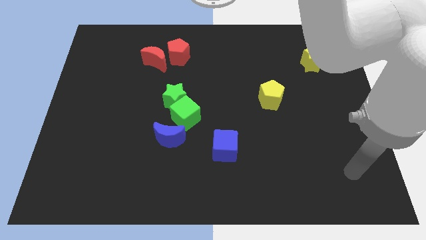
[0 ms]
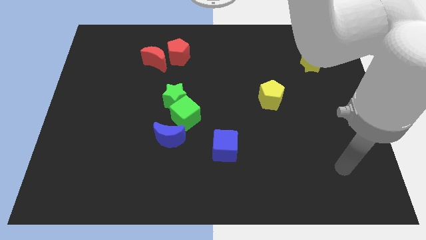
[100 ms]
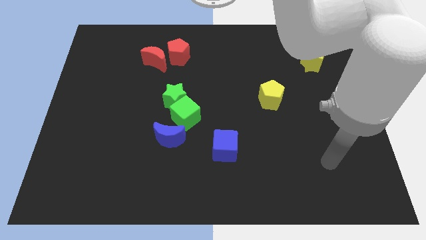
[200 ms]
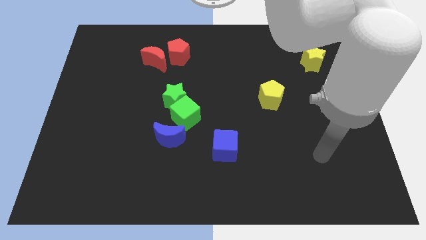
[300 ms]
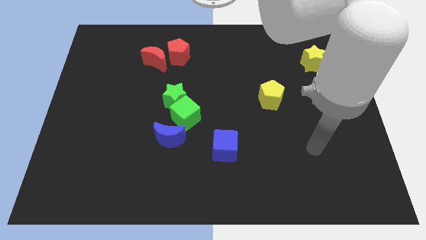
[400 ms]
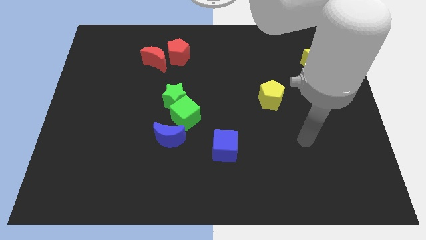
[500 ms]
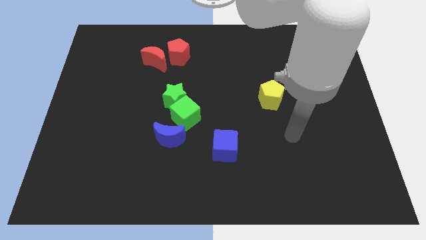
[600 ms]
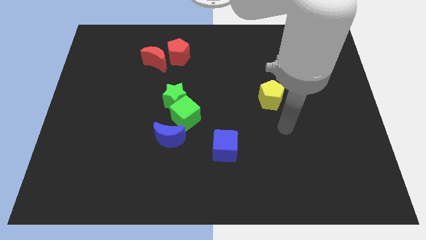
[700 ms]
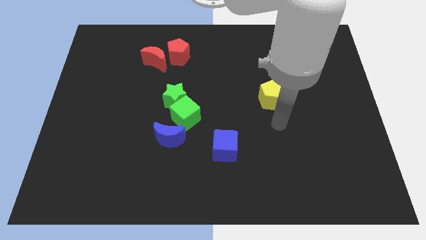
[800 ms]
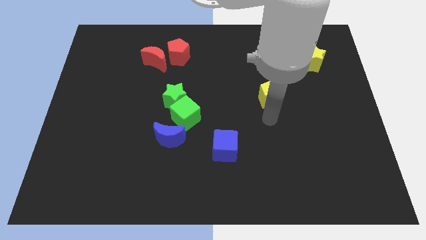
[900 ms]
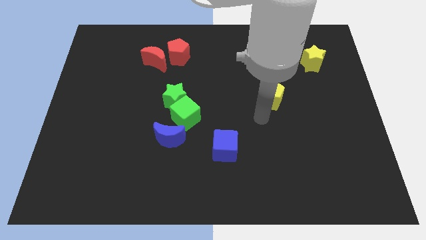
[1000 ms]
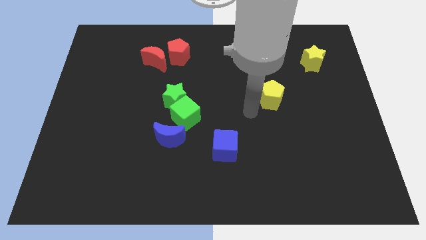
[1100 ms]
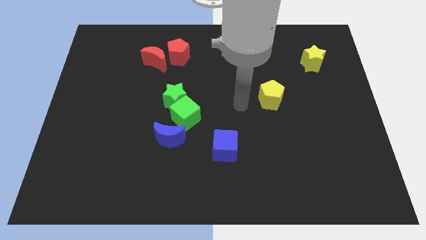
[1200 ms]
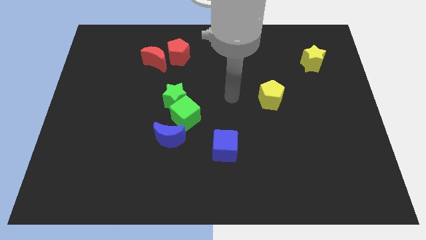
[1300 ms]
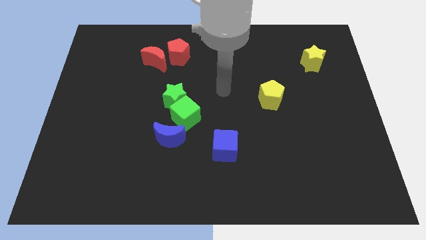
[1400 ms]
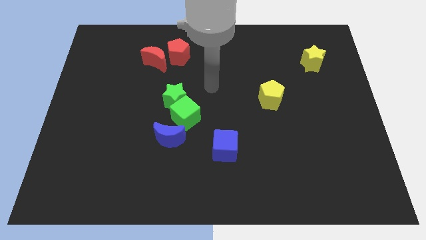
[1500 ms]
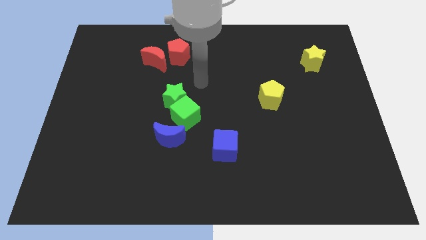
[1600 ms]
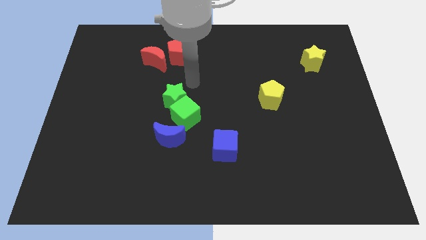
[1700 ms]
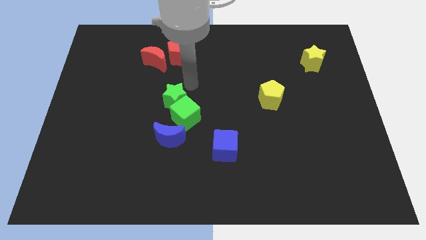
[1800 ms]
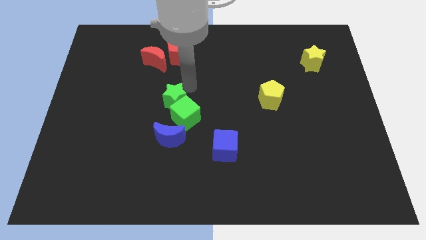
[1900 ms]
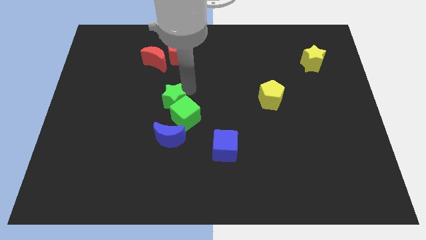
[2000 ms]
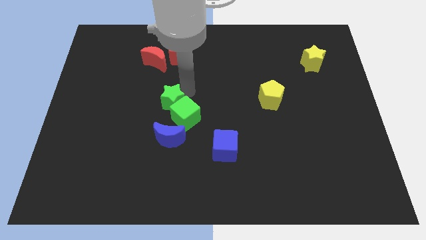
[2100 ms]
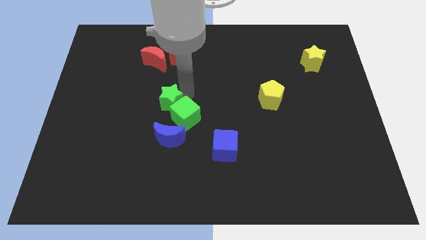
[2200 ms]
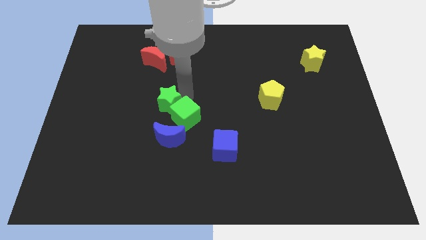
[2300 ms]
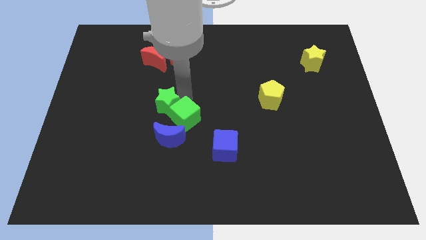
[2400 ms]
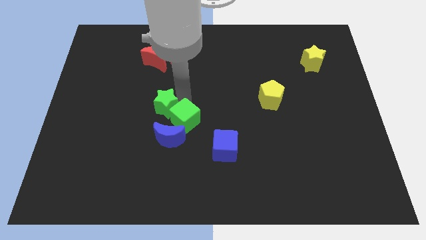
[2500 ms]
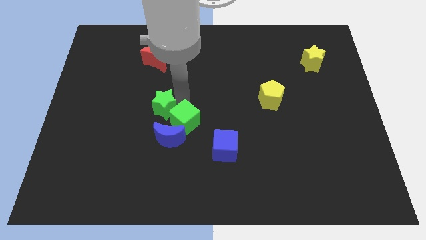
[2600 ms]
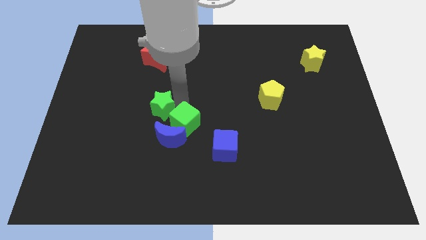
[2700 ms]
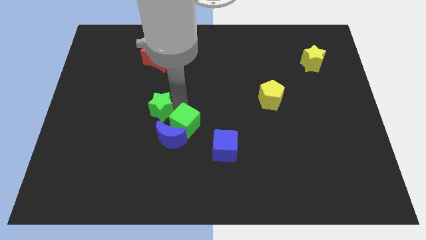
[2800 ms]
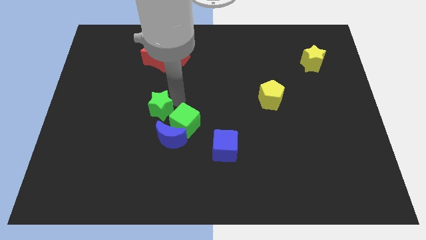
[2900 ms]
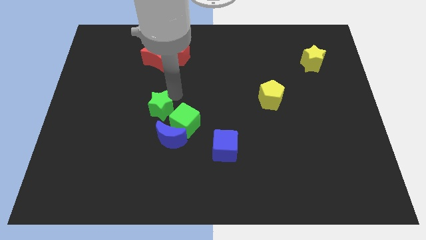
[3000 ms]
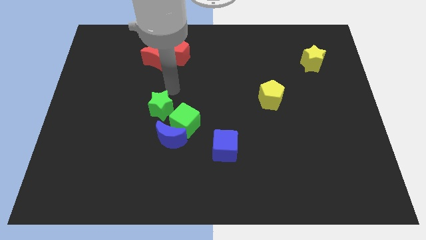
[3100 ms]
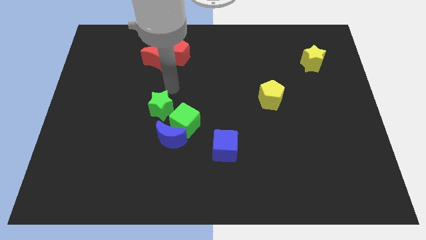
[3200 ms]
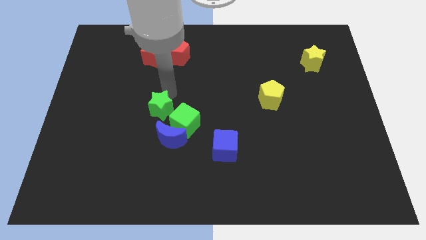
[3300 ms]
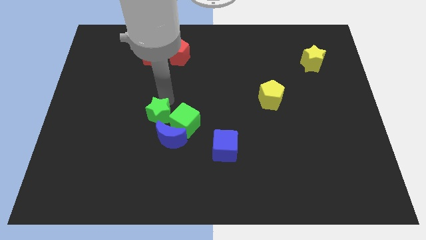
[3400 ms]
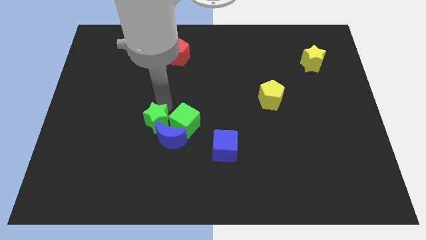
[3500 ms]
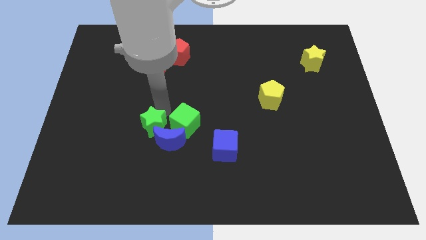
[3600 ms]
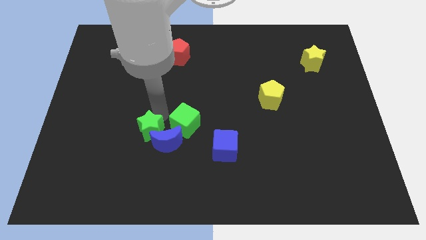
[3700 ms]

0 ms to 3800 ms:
slightly push the green star downwards

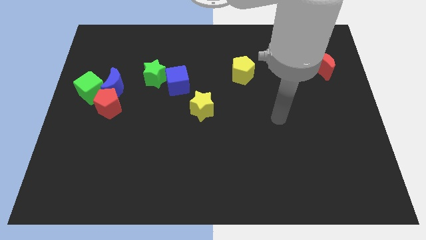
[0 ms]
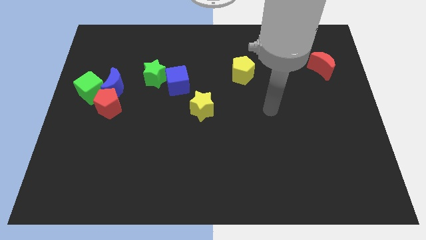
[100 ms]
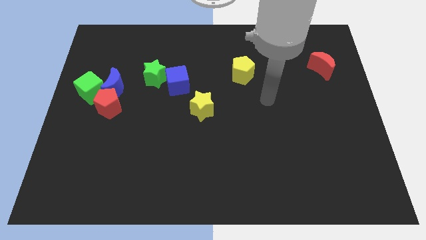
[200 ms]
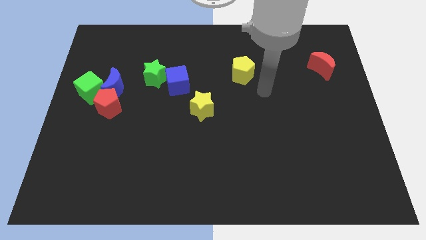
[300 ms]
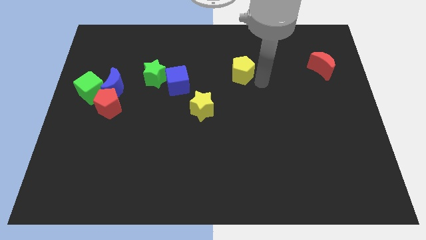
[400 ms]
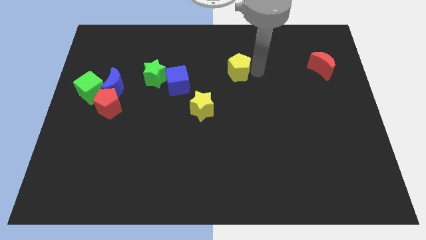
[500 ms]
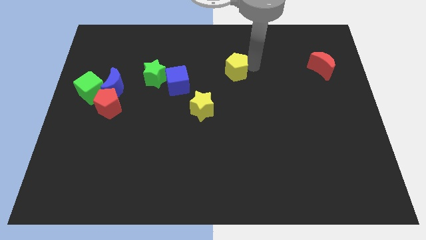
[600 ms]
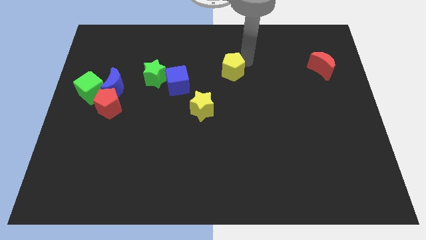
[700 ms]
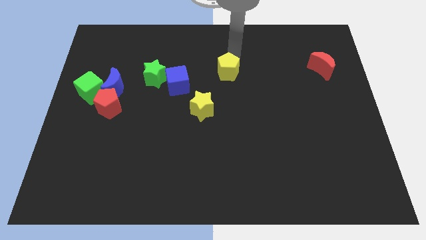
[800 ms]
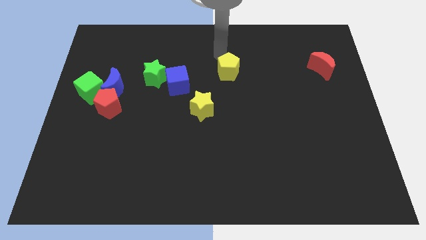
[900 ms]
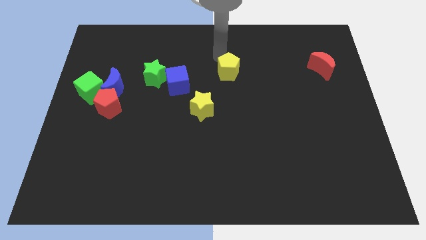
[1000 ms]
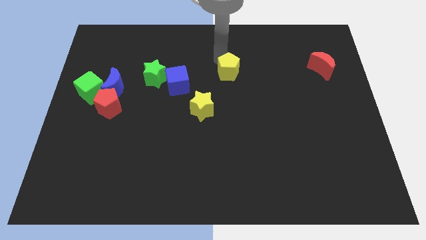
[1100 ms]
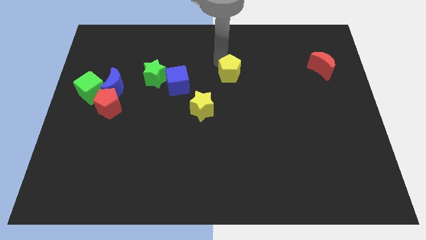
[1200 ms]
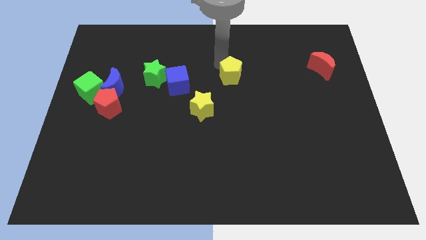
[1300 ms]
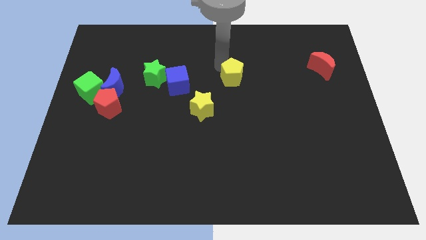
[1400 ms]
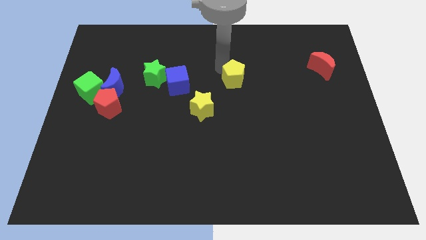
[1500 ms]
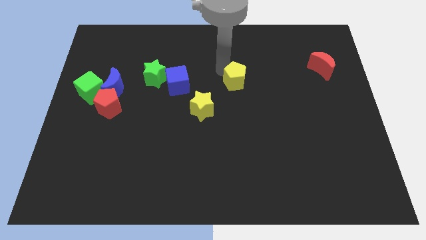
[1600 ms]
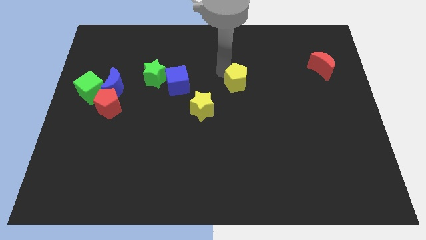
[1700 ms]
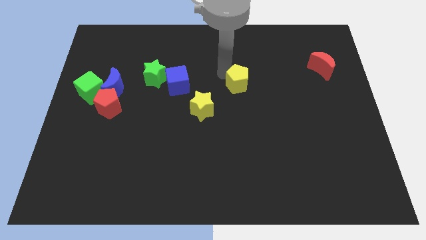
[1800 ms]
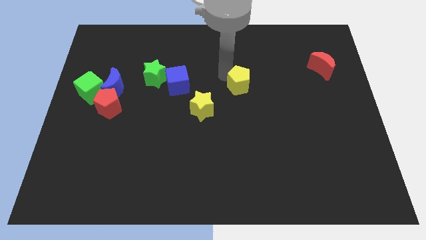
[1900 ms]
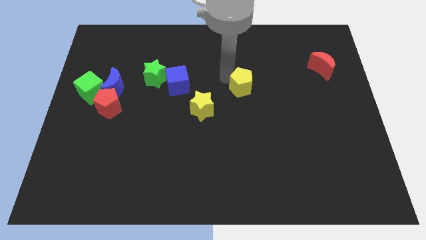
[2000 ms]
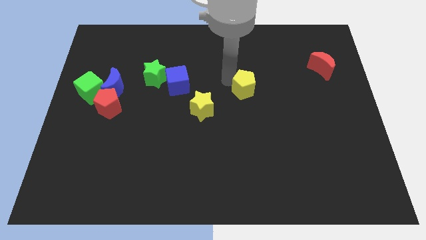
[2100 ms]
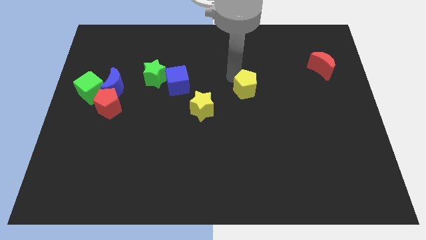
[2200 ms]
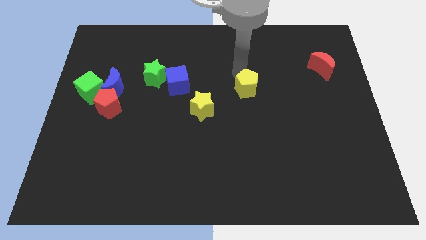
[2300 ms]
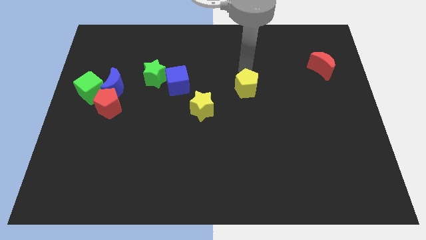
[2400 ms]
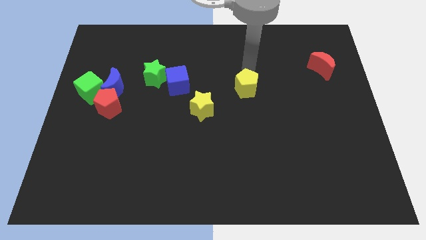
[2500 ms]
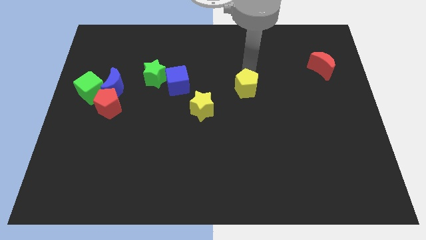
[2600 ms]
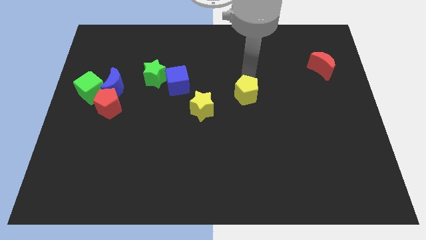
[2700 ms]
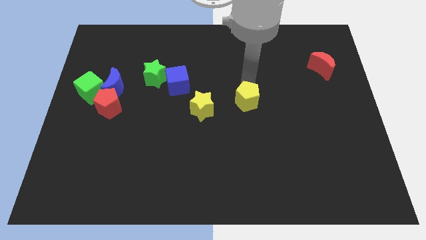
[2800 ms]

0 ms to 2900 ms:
push the yellow pentagon down somewhat

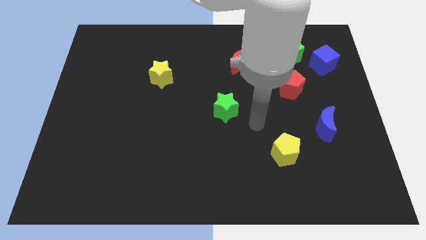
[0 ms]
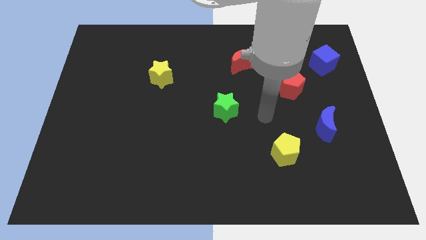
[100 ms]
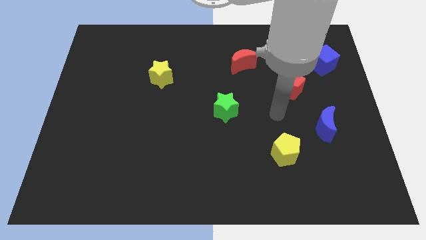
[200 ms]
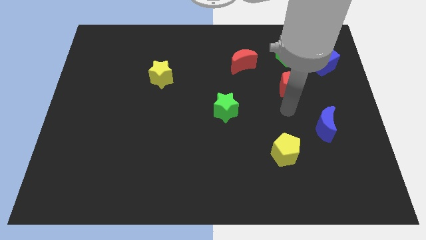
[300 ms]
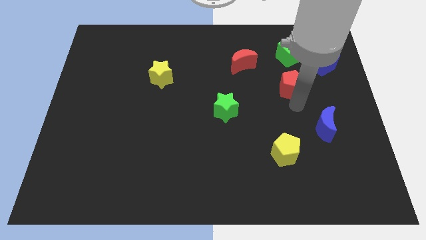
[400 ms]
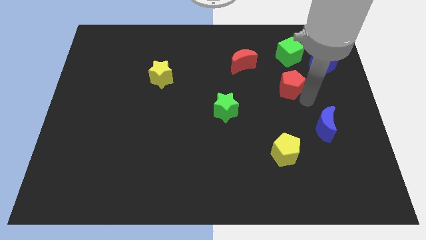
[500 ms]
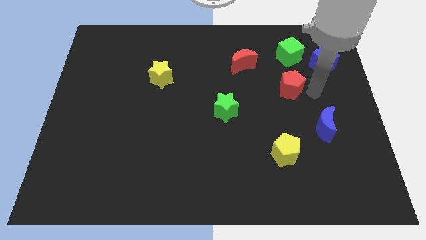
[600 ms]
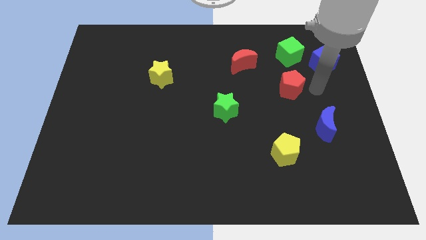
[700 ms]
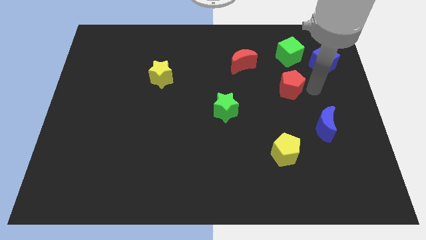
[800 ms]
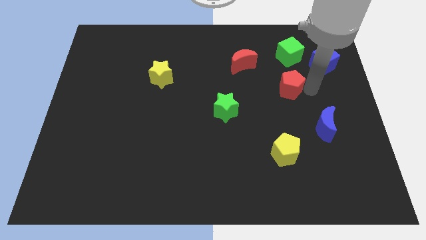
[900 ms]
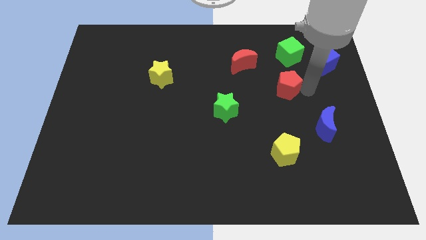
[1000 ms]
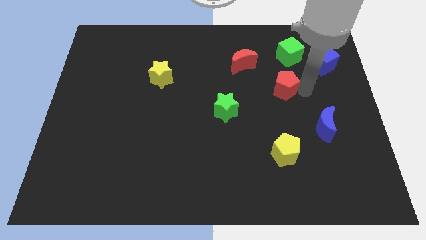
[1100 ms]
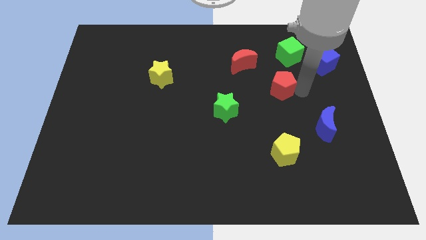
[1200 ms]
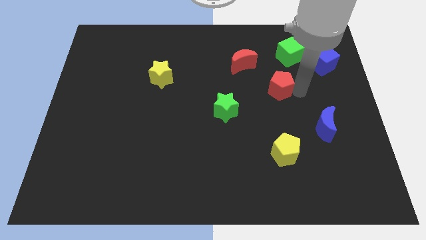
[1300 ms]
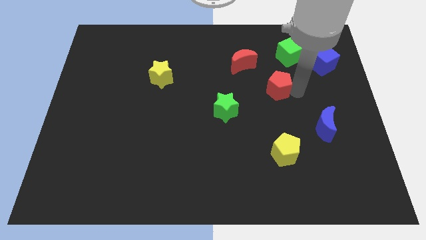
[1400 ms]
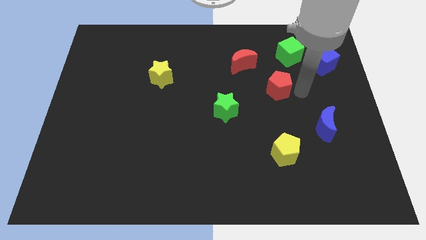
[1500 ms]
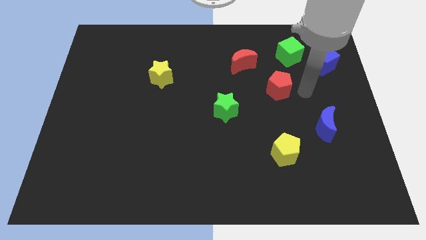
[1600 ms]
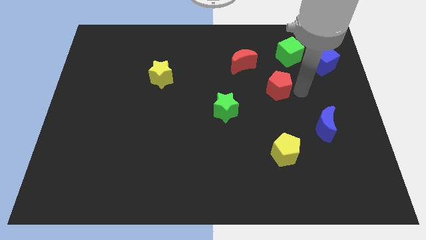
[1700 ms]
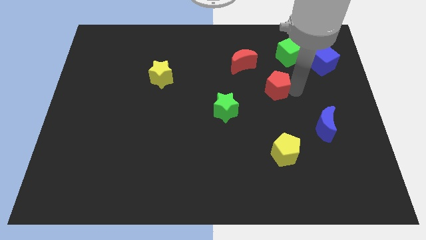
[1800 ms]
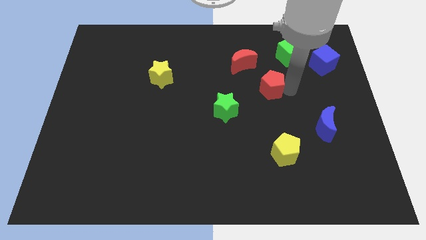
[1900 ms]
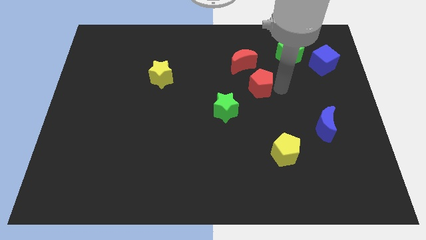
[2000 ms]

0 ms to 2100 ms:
slide the red pentagon a bit left
